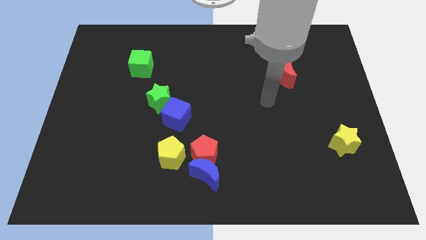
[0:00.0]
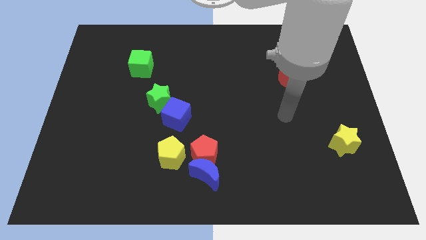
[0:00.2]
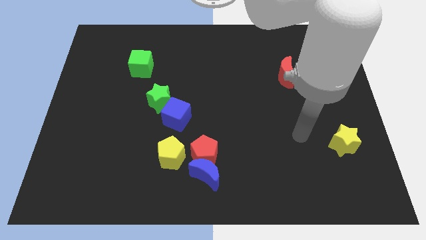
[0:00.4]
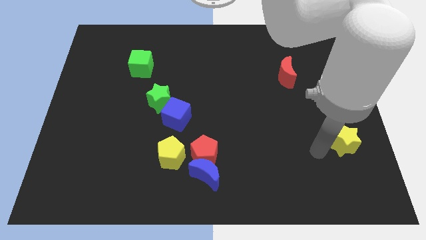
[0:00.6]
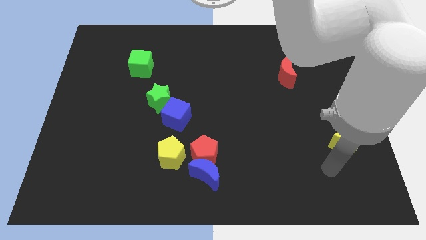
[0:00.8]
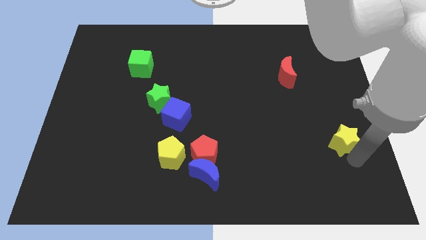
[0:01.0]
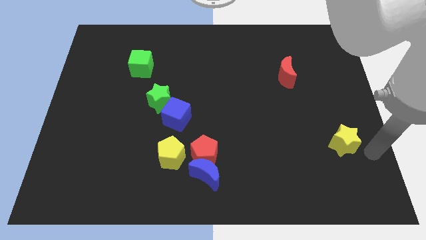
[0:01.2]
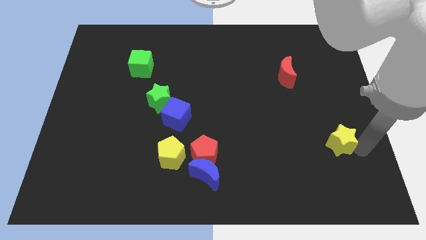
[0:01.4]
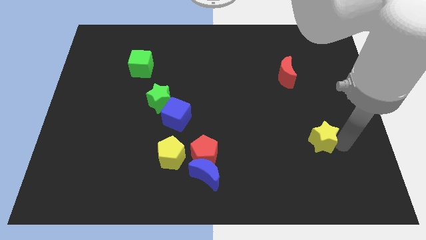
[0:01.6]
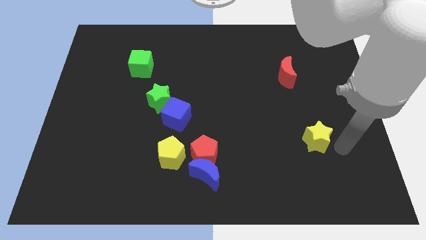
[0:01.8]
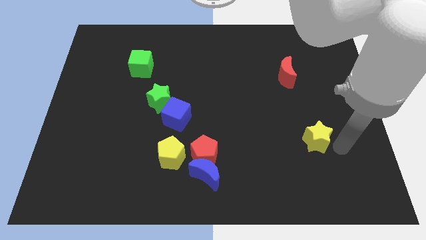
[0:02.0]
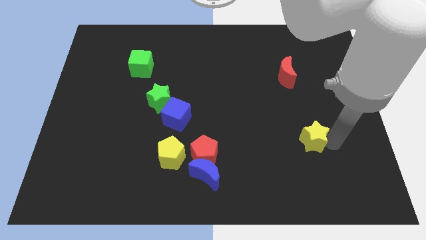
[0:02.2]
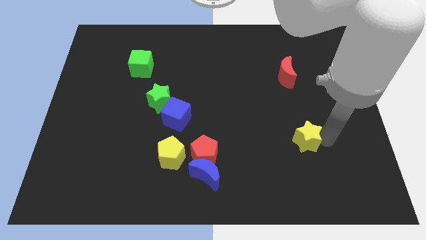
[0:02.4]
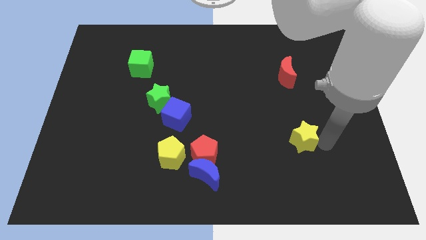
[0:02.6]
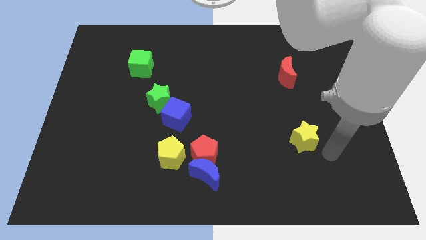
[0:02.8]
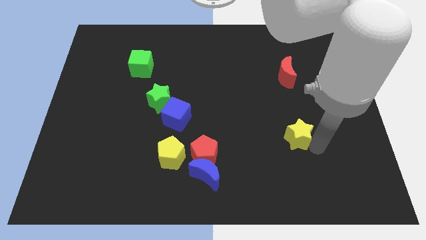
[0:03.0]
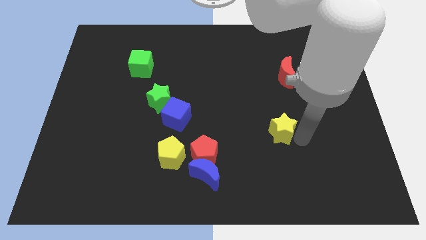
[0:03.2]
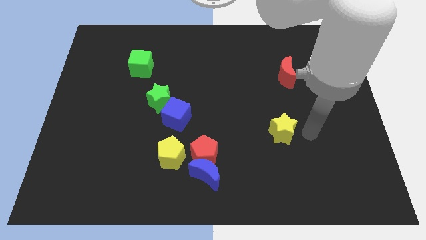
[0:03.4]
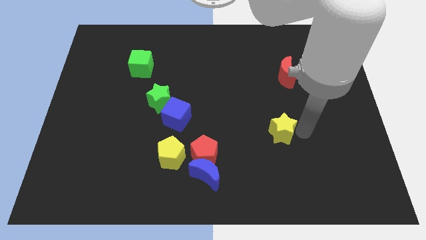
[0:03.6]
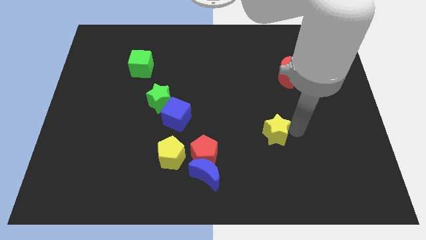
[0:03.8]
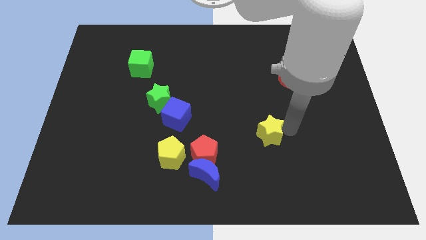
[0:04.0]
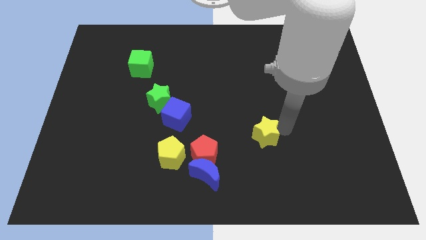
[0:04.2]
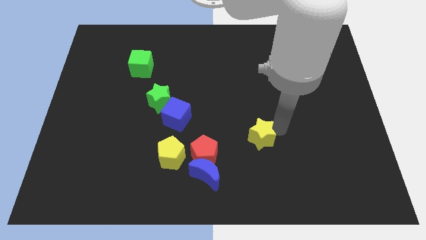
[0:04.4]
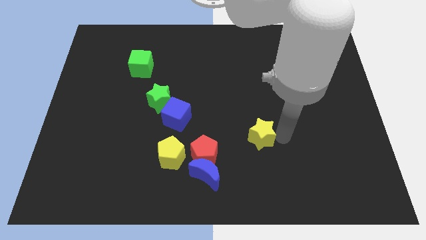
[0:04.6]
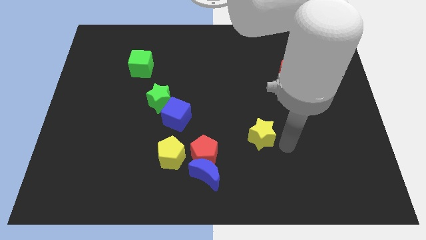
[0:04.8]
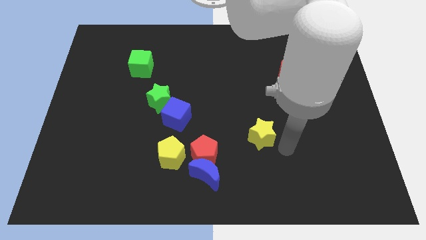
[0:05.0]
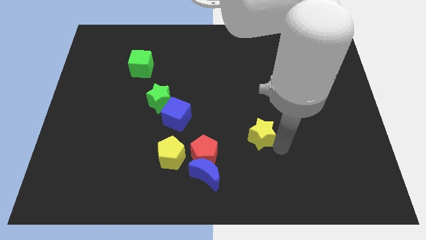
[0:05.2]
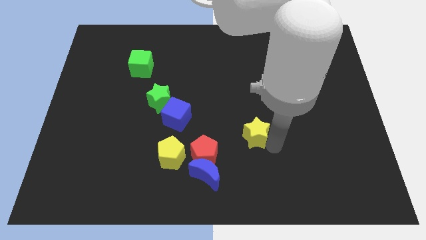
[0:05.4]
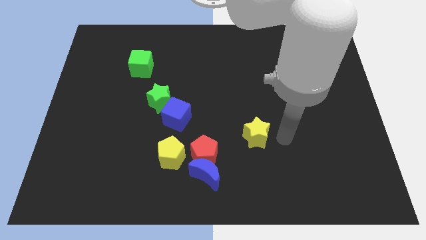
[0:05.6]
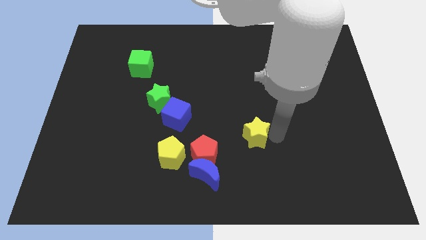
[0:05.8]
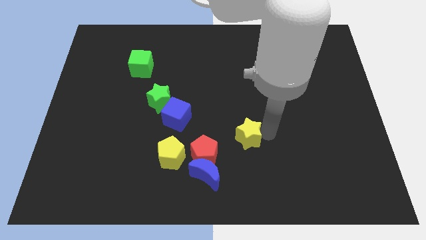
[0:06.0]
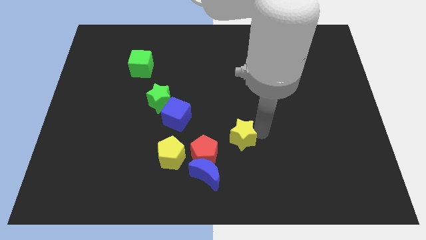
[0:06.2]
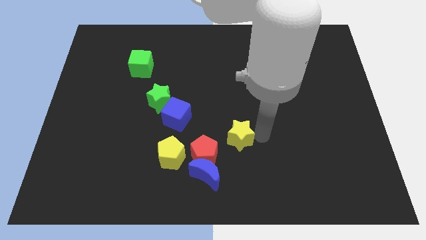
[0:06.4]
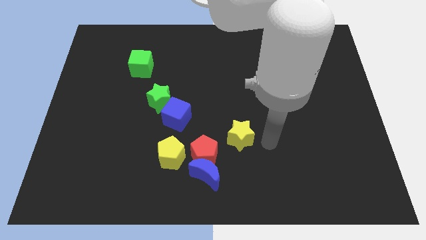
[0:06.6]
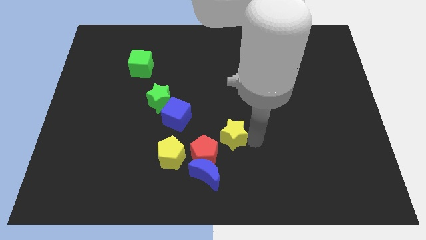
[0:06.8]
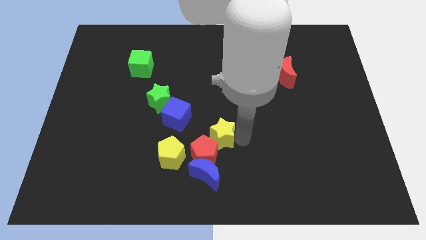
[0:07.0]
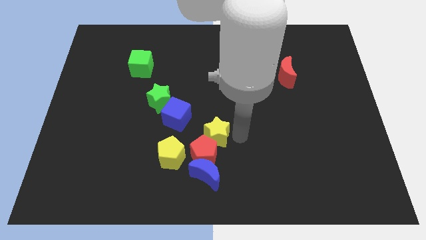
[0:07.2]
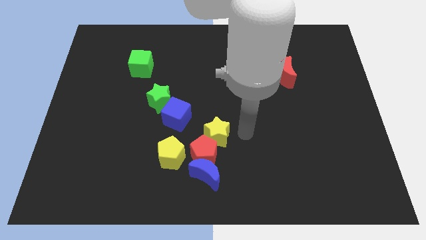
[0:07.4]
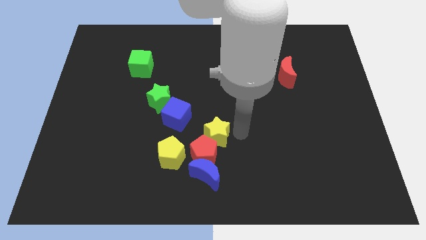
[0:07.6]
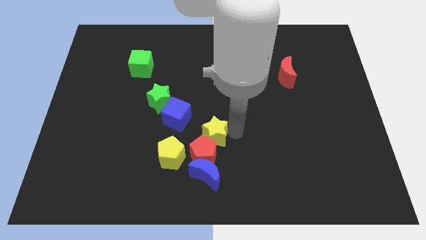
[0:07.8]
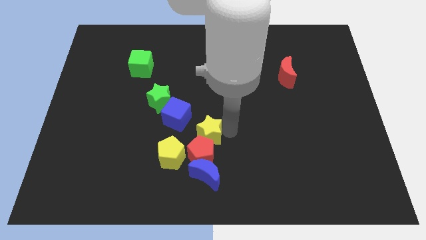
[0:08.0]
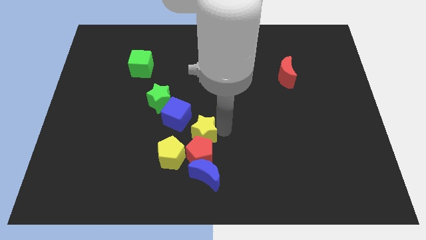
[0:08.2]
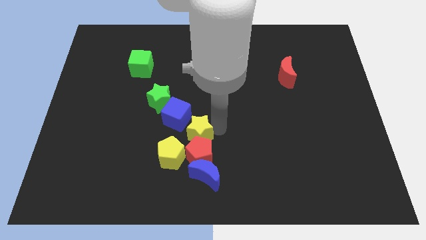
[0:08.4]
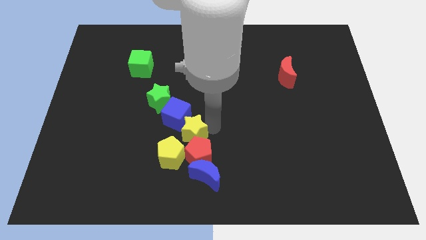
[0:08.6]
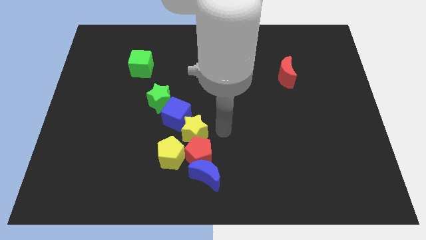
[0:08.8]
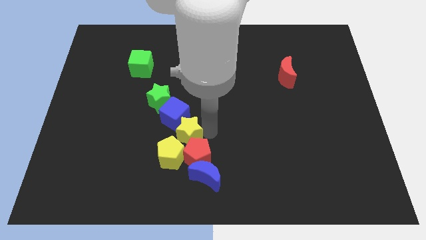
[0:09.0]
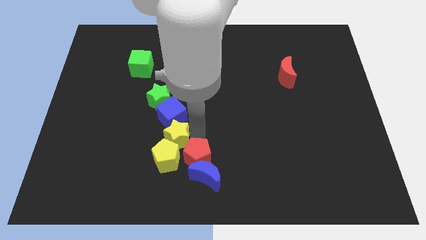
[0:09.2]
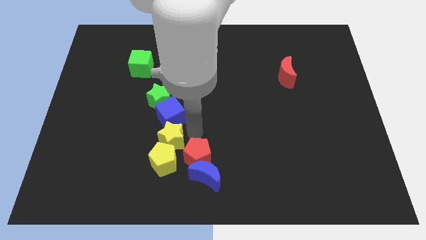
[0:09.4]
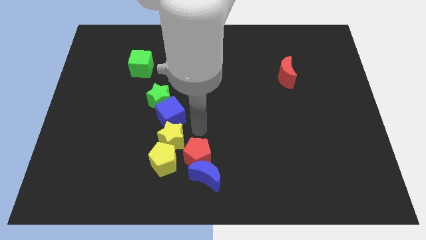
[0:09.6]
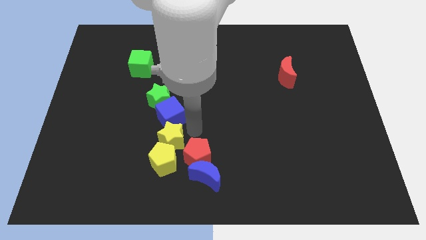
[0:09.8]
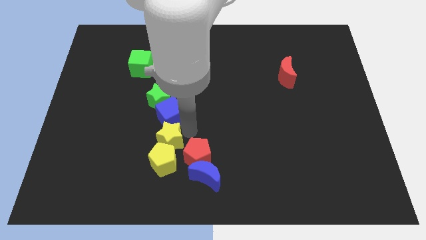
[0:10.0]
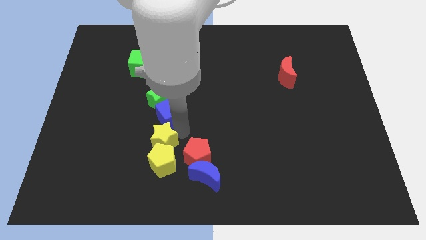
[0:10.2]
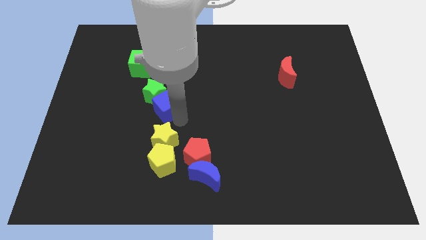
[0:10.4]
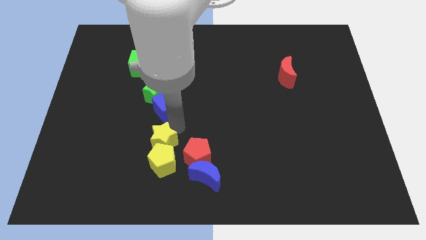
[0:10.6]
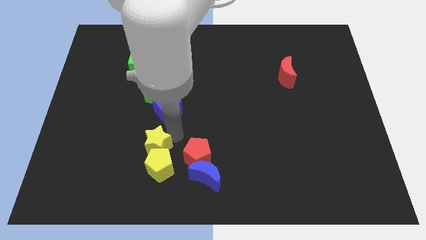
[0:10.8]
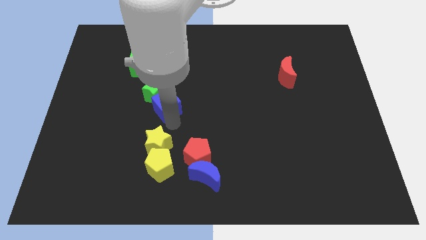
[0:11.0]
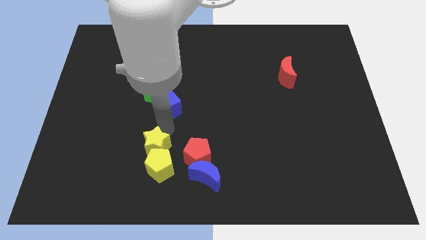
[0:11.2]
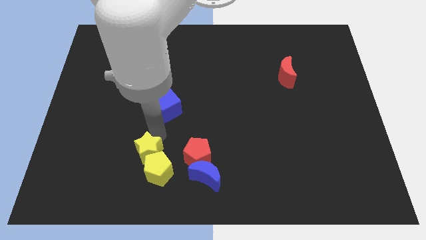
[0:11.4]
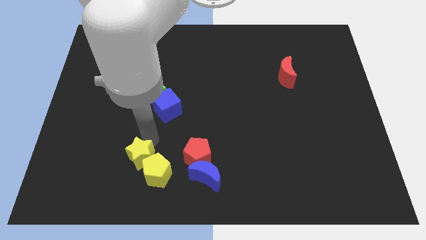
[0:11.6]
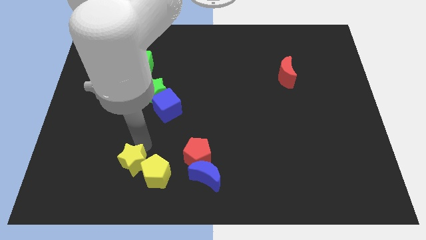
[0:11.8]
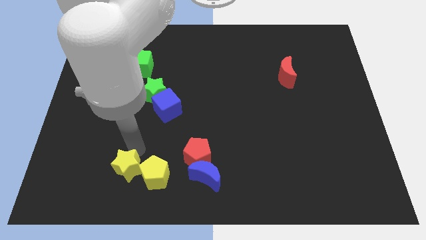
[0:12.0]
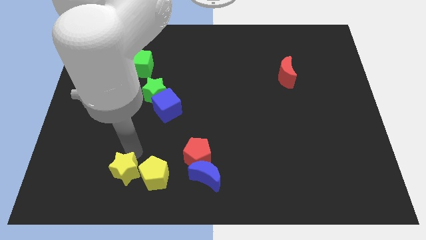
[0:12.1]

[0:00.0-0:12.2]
move the yellow star diagonally down and to the left of the yellow pentagon

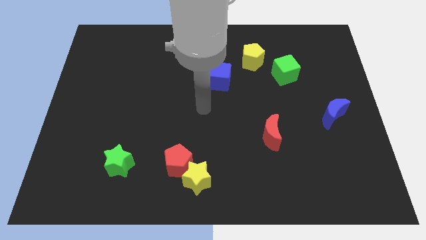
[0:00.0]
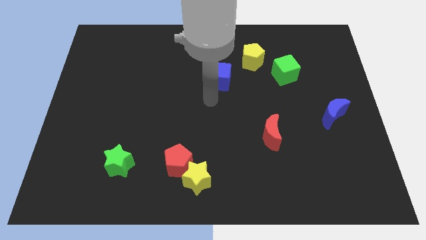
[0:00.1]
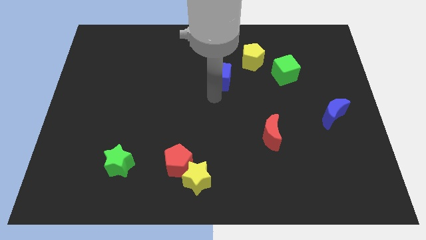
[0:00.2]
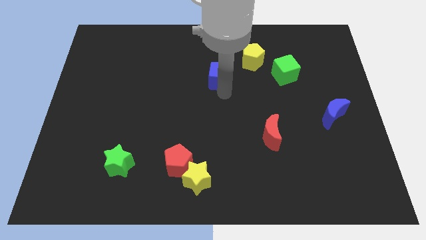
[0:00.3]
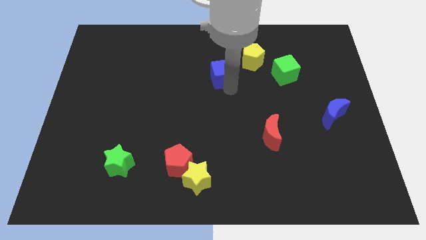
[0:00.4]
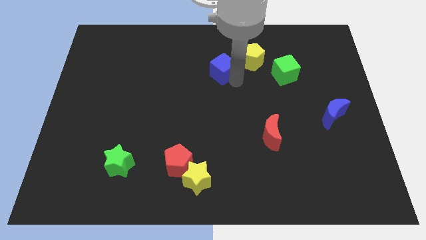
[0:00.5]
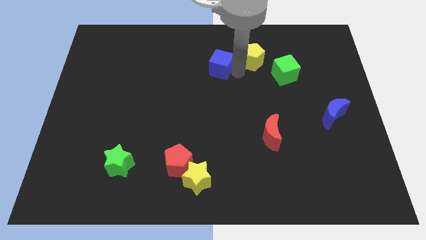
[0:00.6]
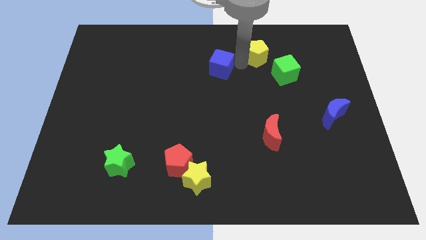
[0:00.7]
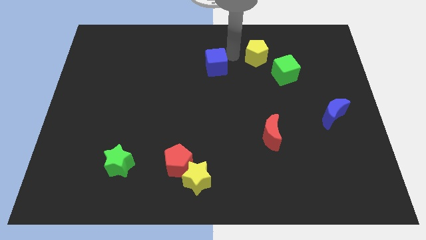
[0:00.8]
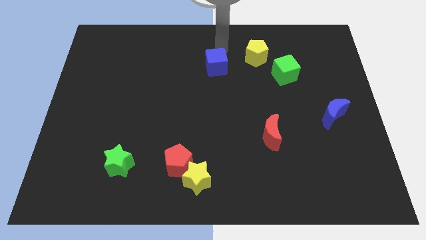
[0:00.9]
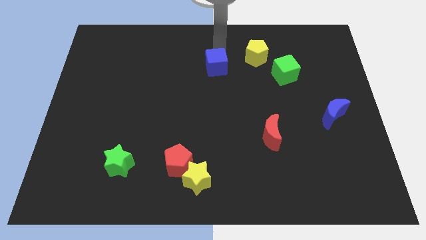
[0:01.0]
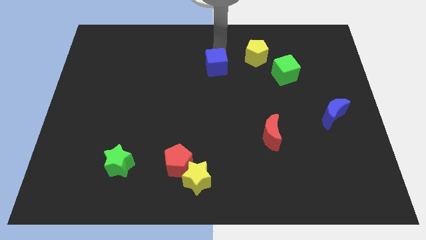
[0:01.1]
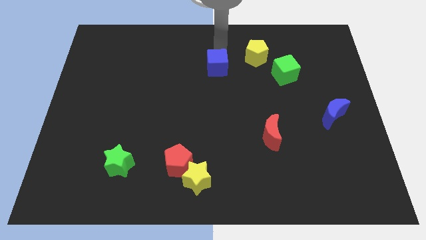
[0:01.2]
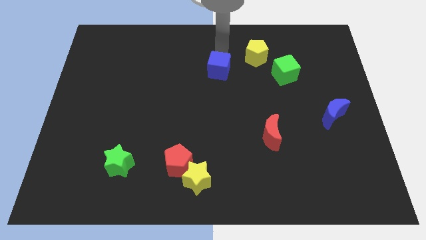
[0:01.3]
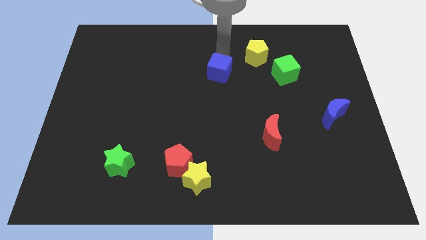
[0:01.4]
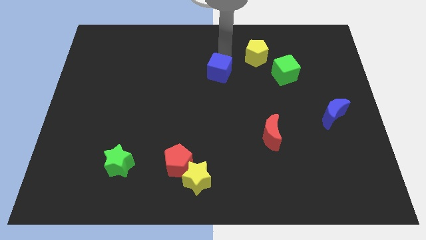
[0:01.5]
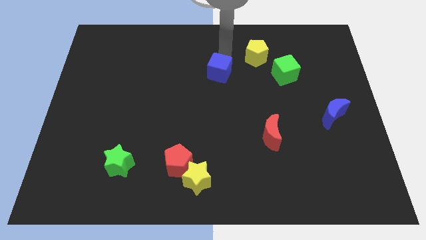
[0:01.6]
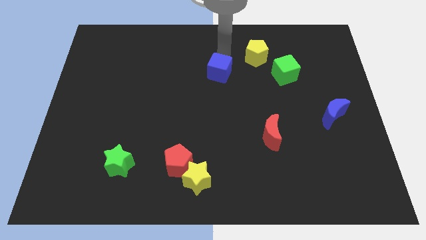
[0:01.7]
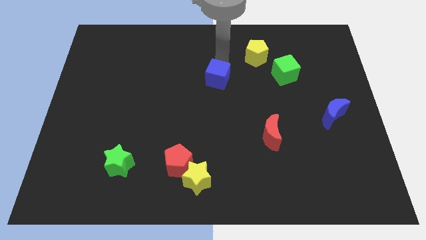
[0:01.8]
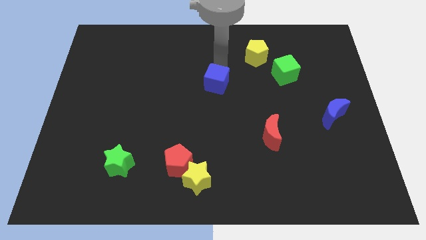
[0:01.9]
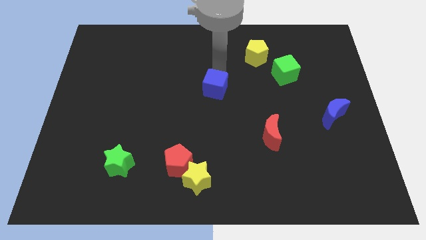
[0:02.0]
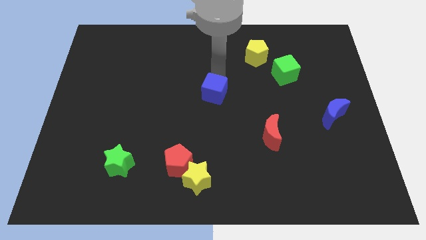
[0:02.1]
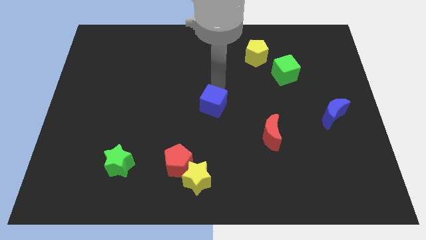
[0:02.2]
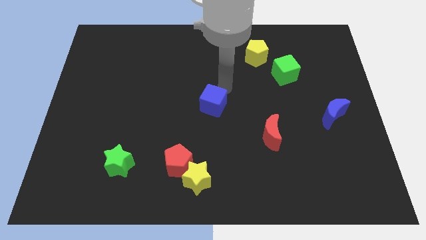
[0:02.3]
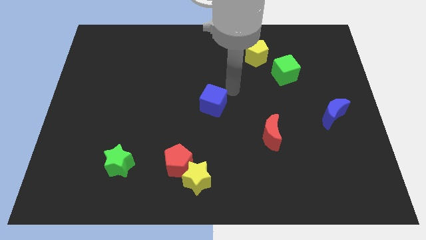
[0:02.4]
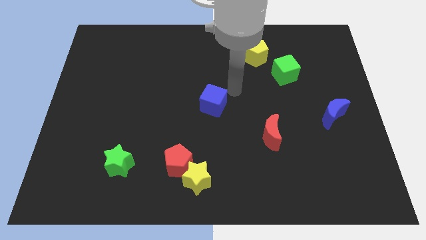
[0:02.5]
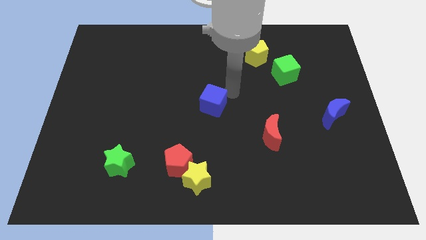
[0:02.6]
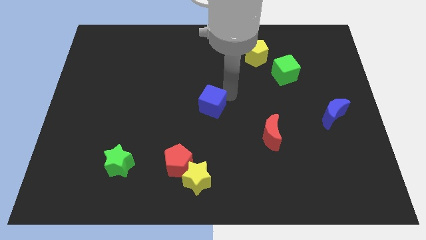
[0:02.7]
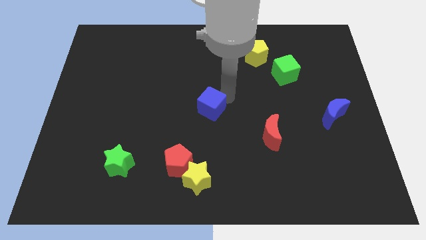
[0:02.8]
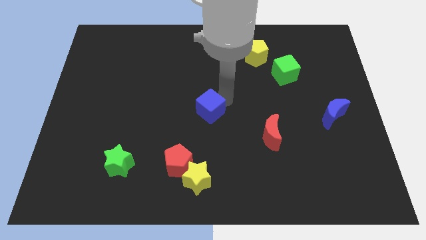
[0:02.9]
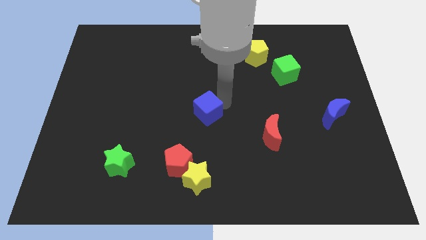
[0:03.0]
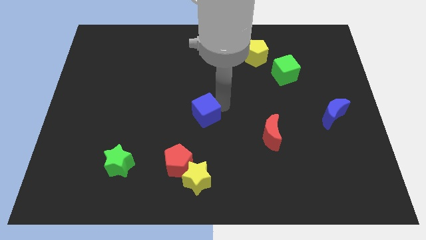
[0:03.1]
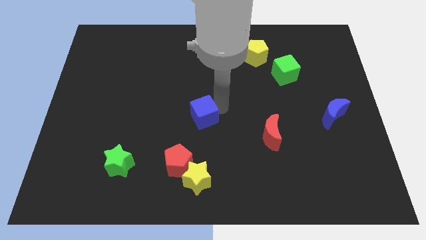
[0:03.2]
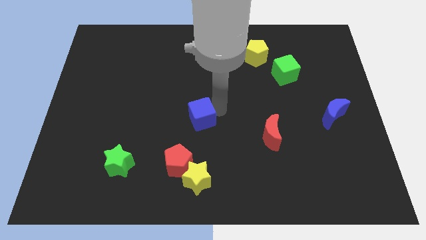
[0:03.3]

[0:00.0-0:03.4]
push the blue cube to the top side of the red pentagon
